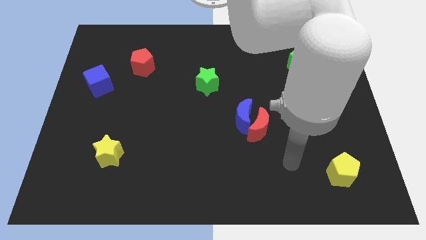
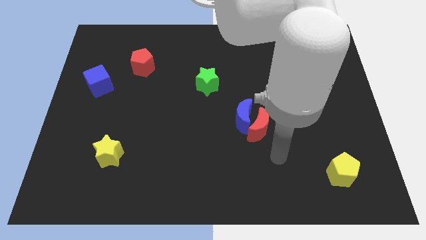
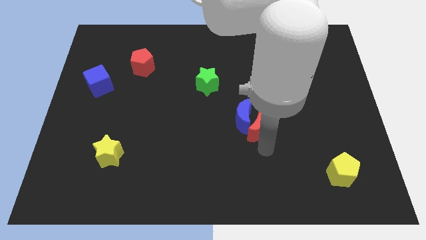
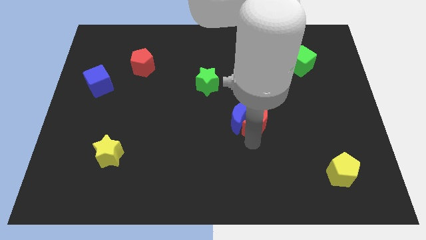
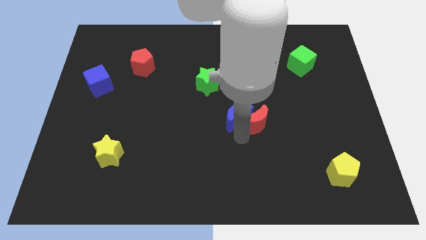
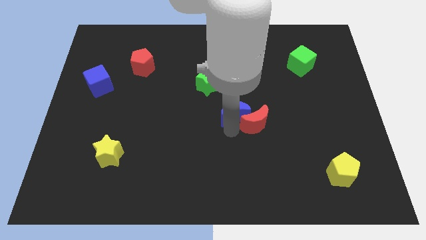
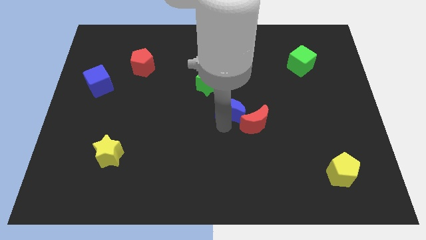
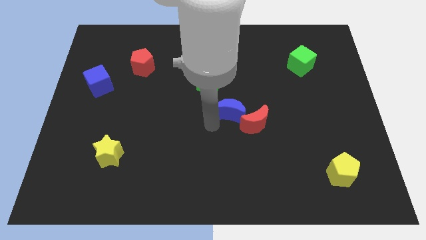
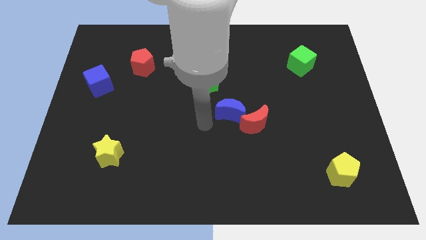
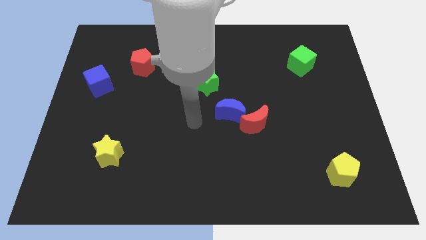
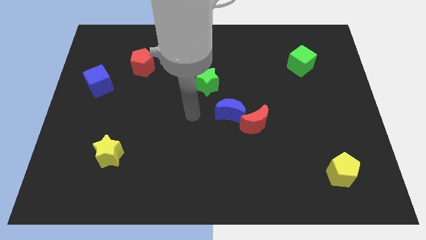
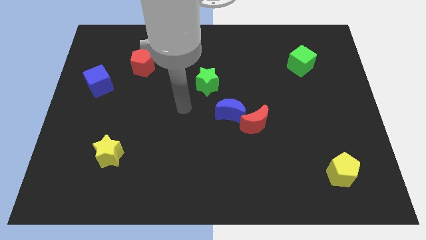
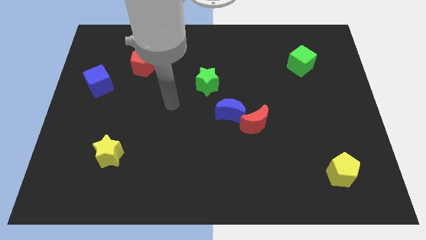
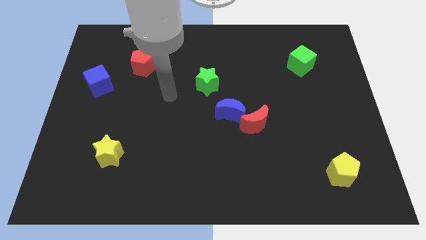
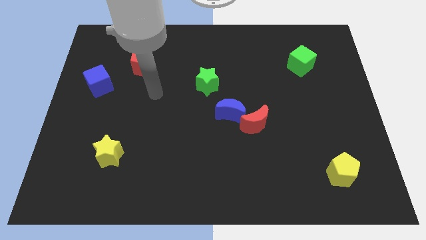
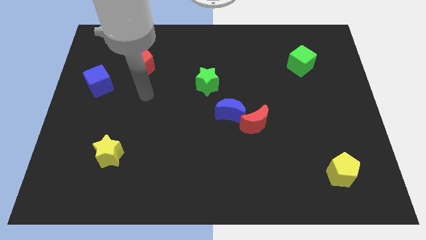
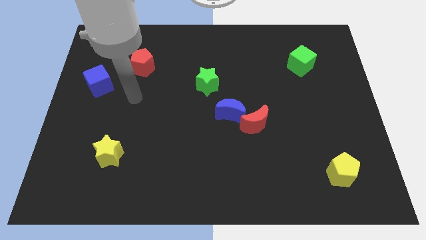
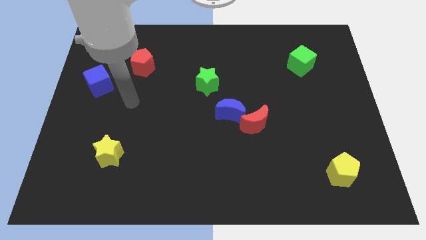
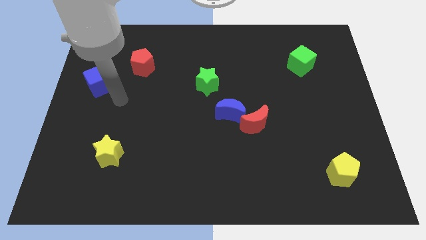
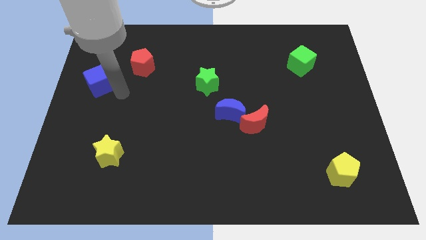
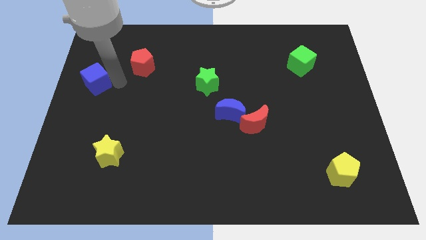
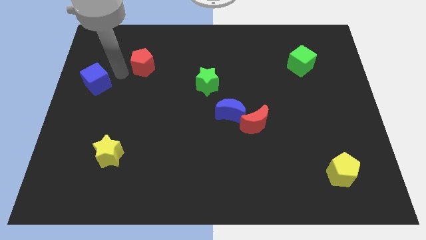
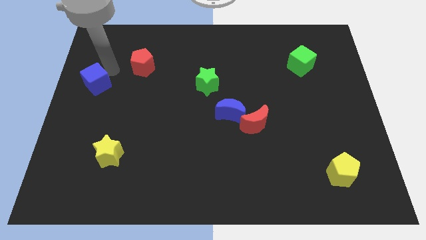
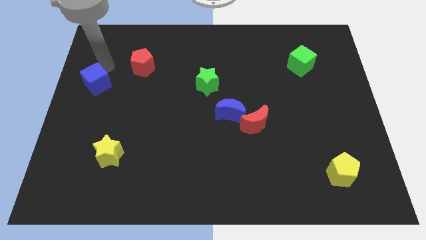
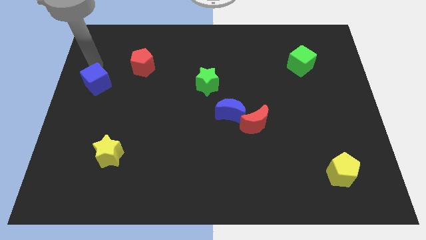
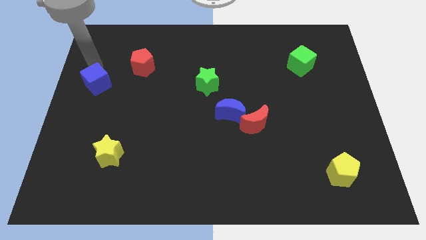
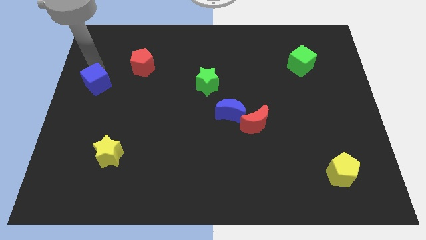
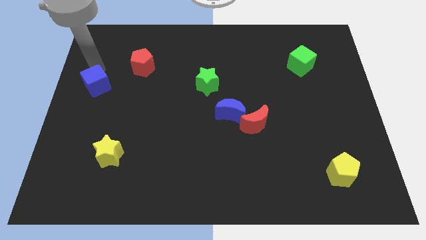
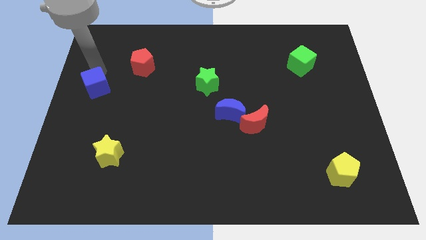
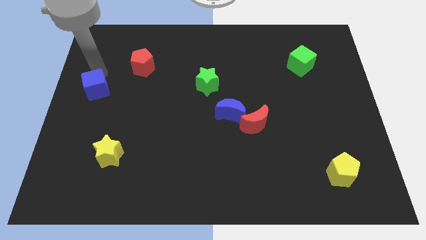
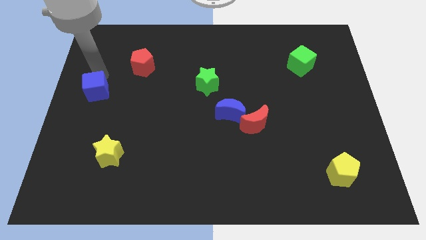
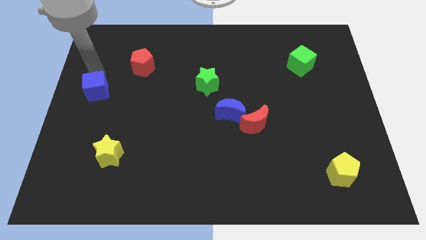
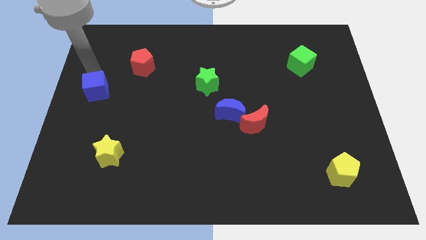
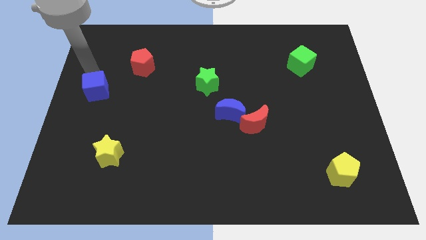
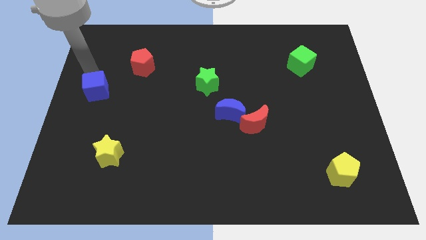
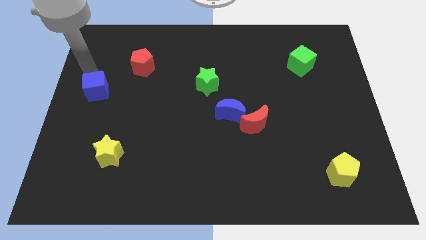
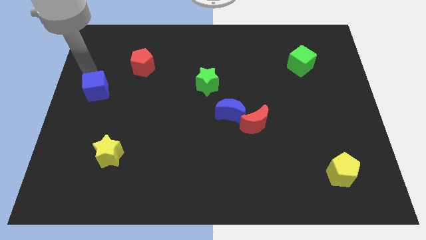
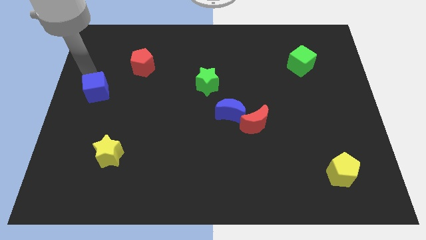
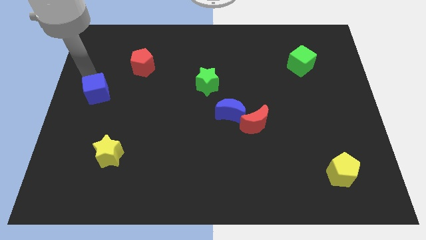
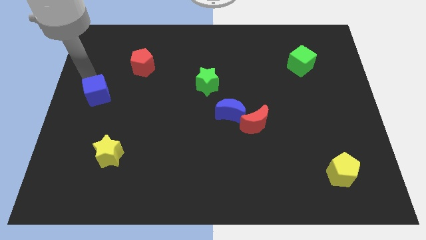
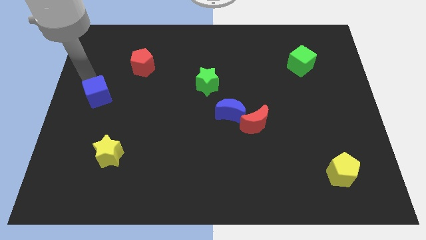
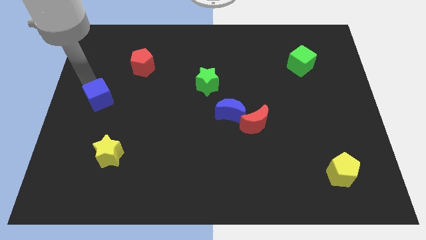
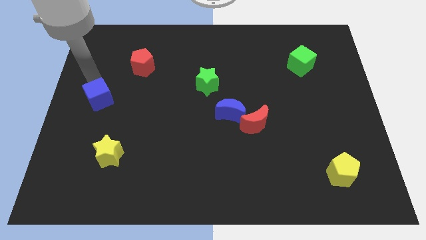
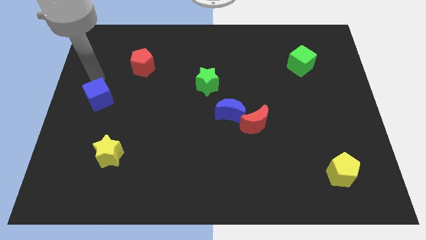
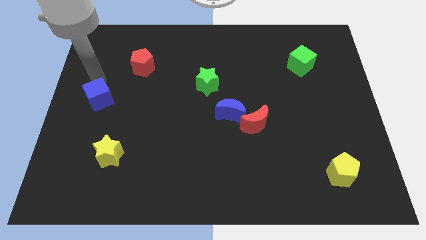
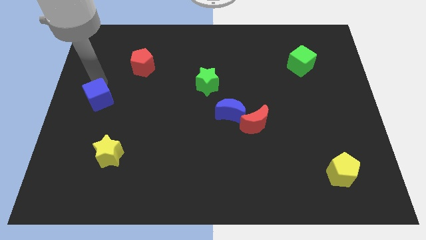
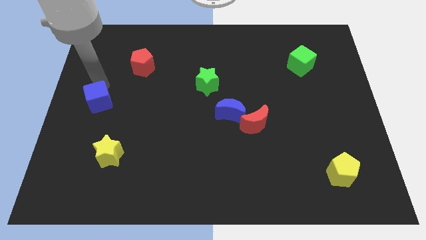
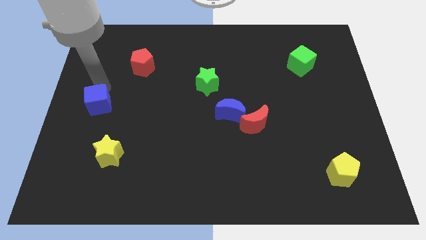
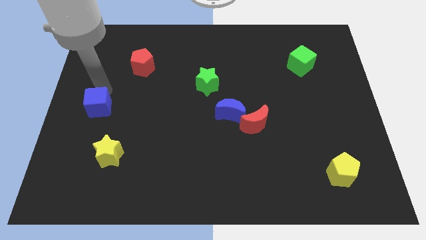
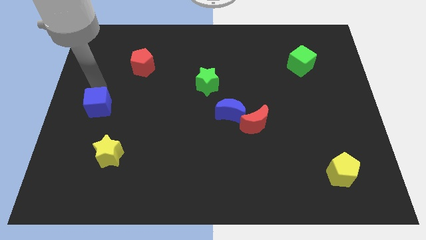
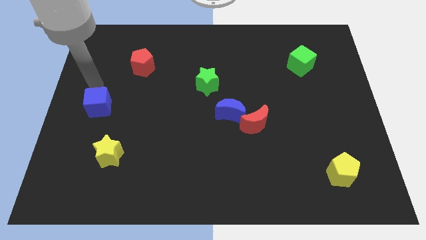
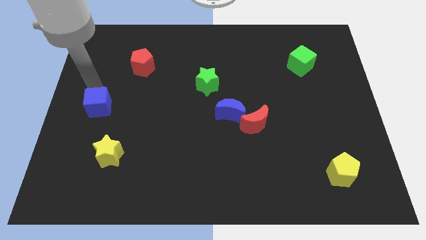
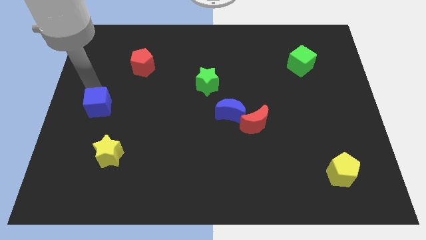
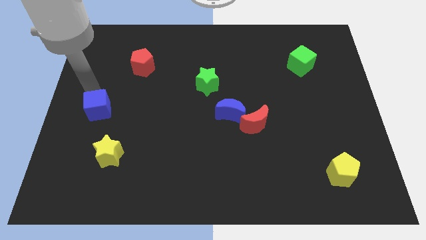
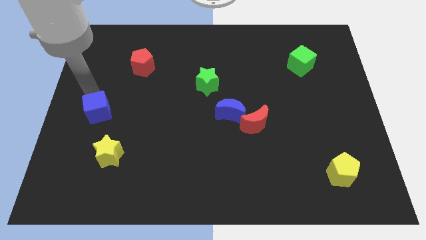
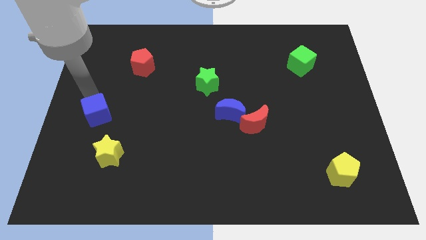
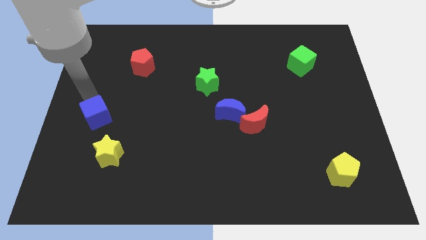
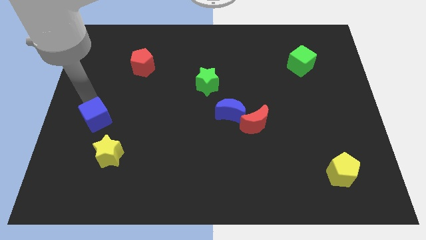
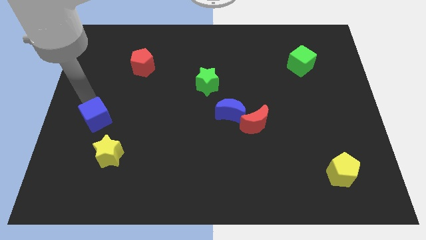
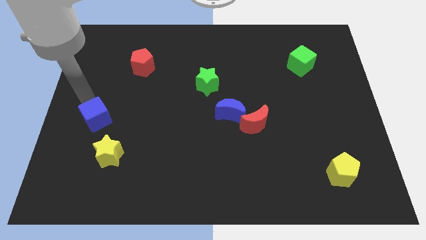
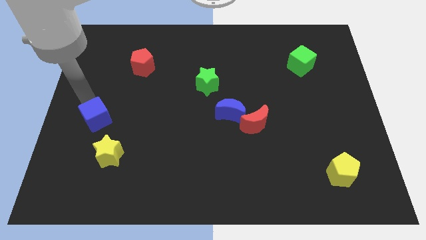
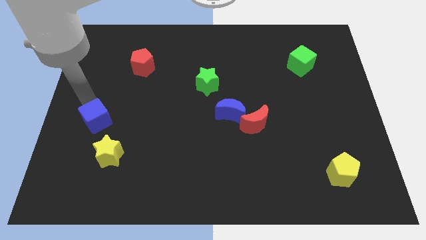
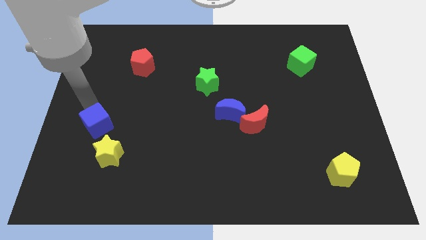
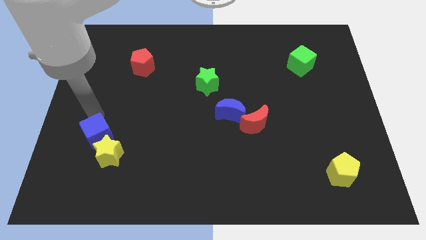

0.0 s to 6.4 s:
put the blue cube next to the yellow star

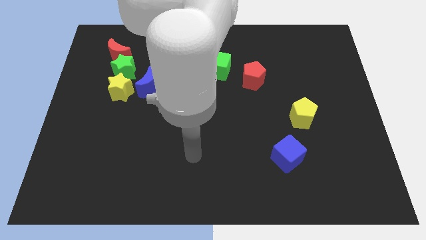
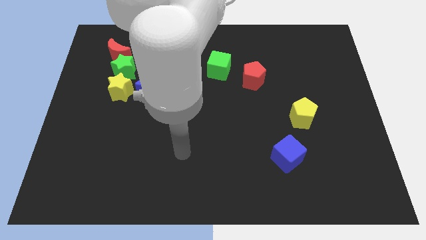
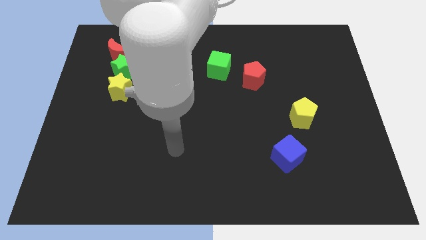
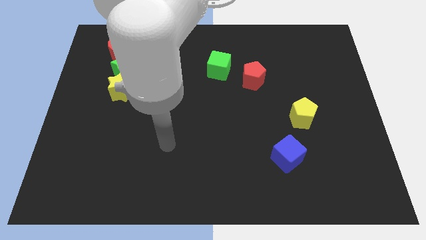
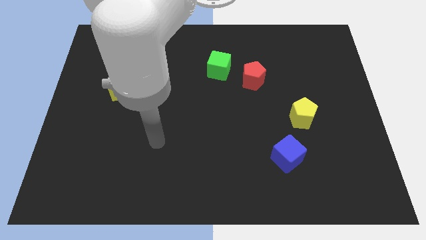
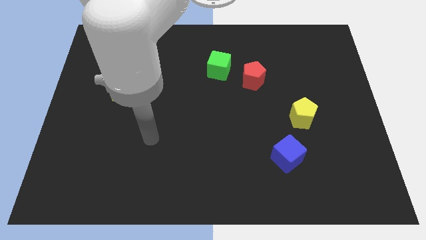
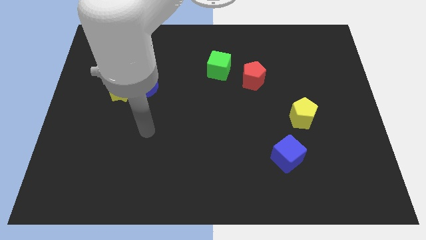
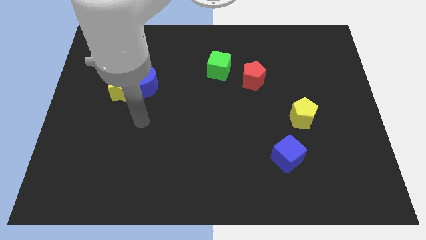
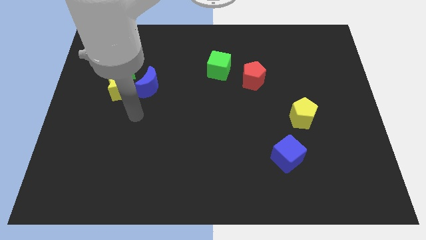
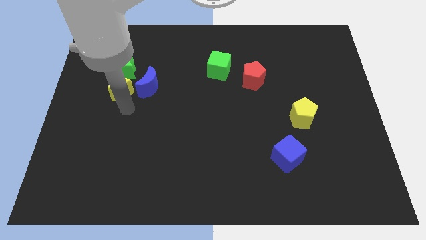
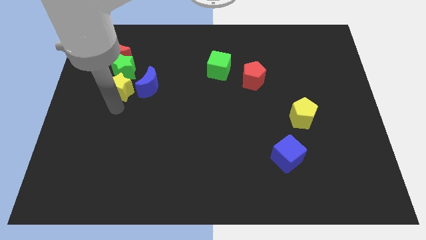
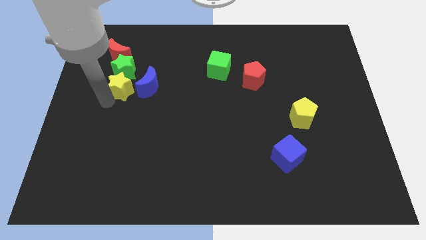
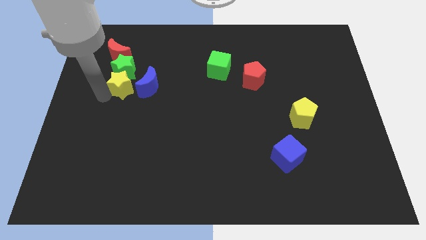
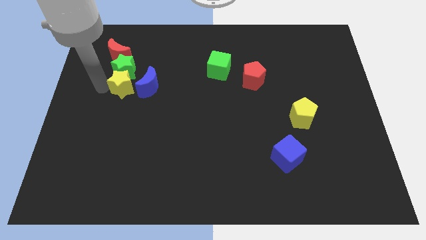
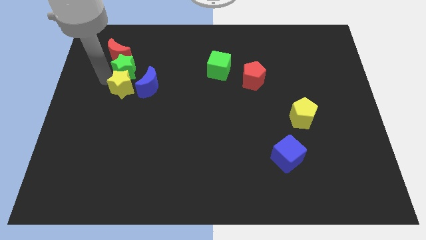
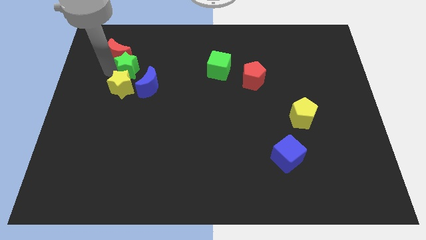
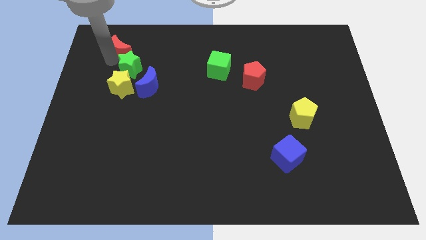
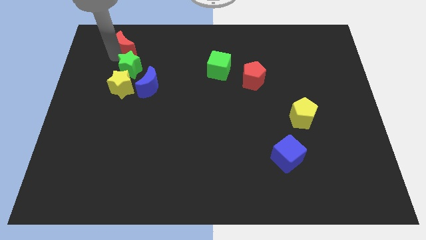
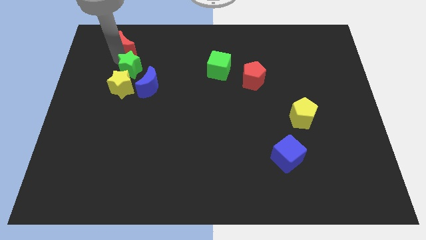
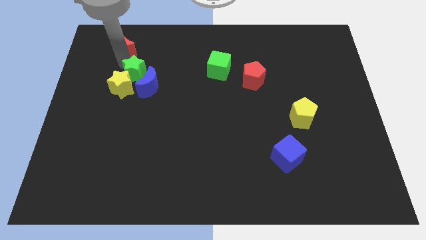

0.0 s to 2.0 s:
slide the green star towards the blue moon
